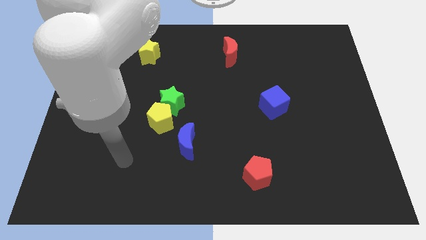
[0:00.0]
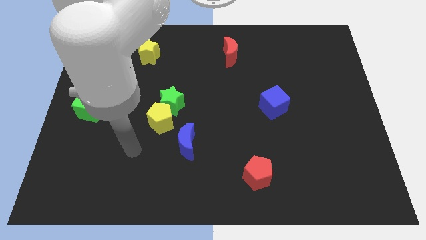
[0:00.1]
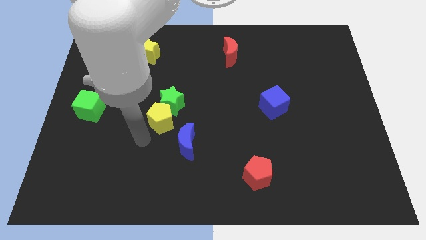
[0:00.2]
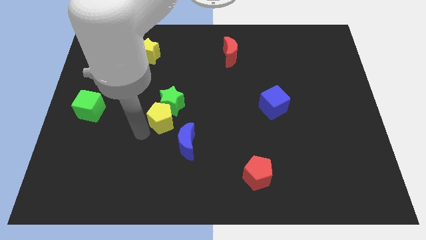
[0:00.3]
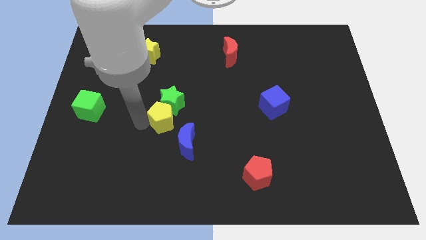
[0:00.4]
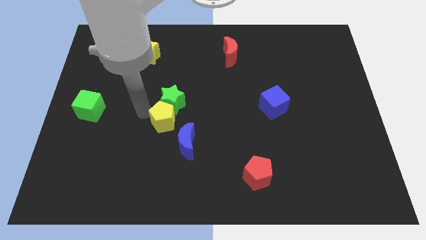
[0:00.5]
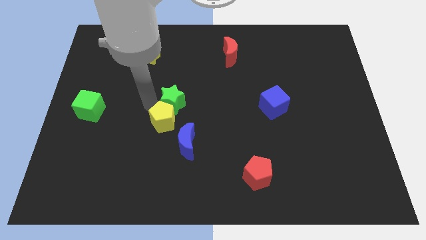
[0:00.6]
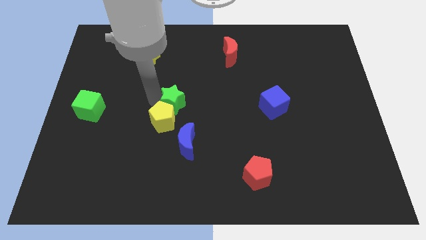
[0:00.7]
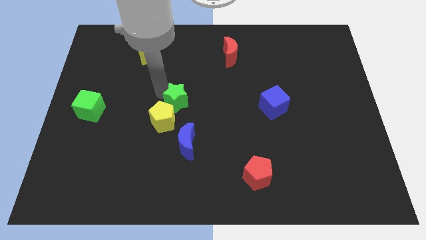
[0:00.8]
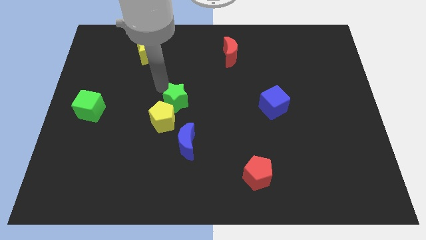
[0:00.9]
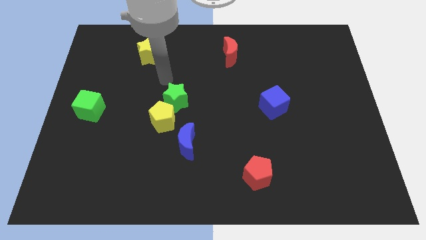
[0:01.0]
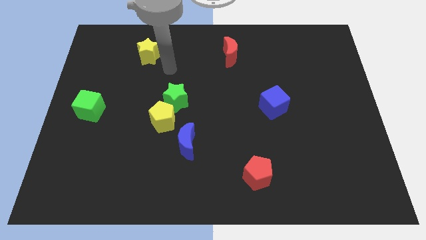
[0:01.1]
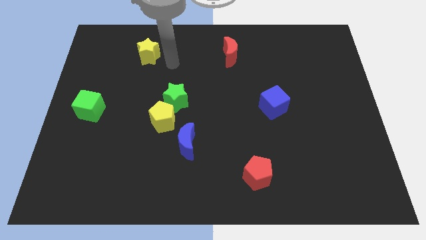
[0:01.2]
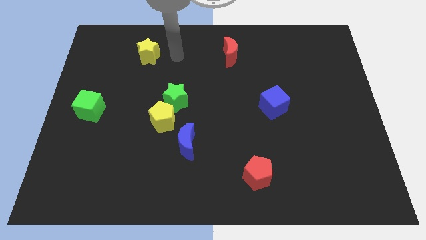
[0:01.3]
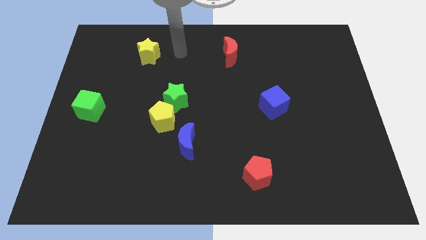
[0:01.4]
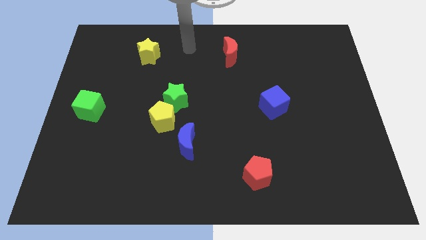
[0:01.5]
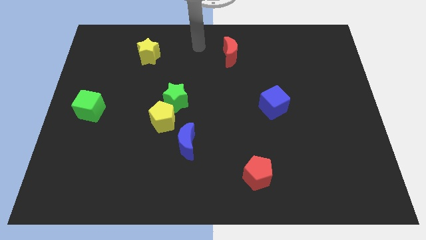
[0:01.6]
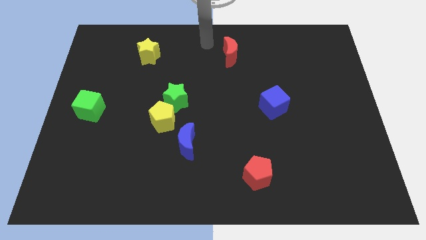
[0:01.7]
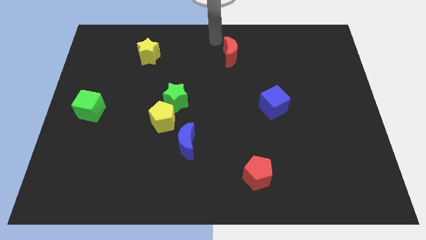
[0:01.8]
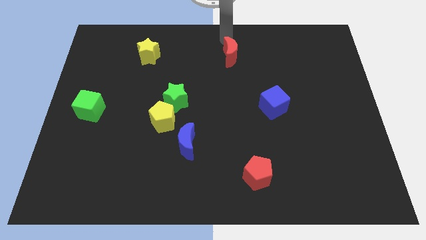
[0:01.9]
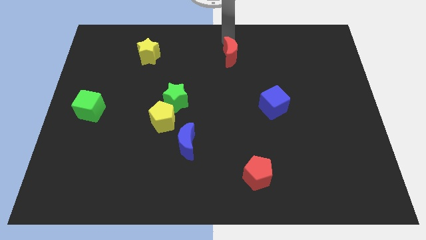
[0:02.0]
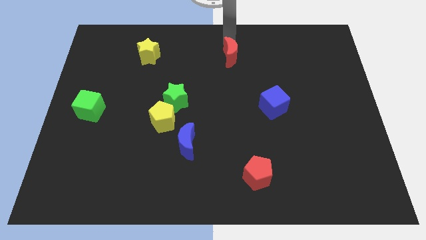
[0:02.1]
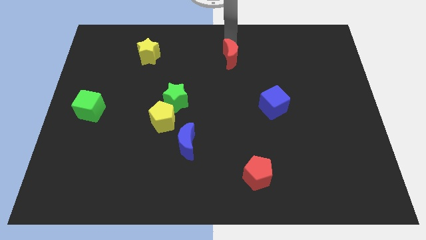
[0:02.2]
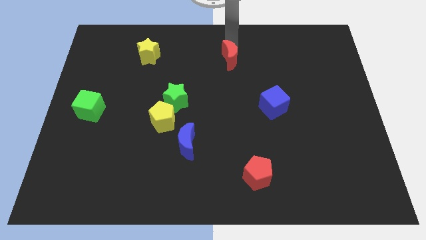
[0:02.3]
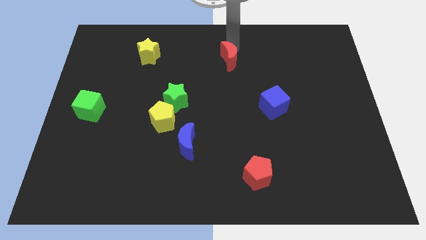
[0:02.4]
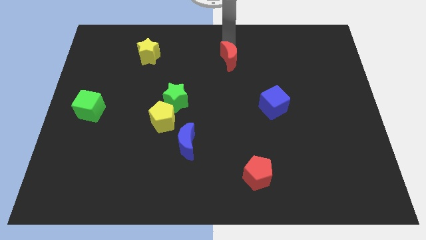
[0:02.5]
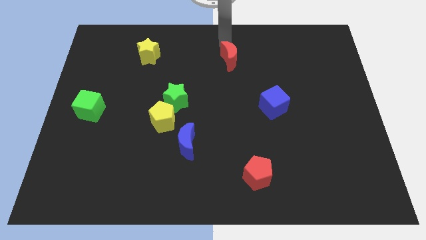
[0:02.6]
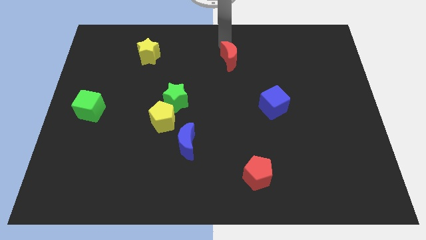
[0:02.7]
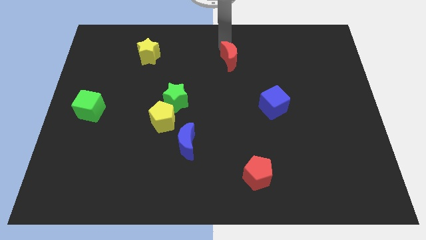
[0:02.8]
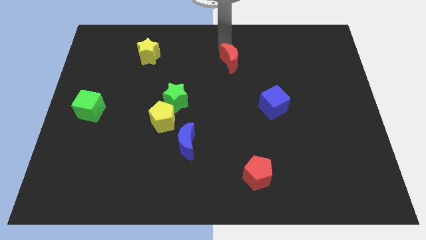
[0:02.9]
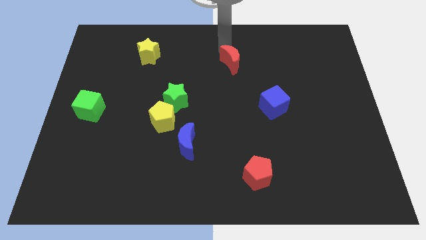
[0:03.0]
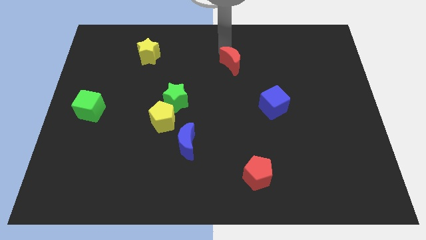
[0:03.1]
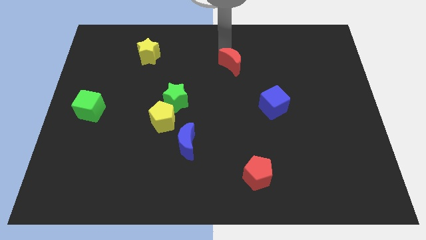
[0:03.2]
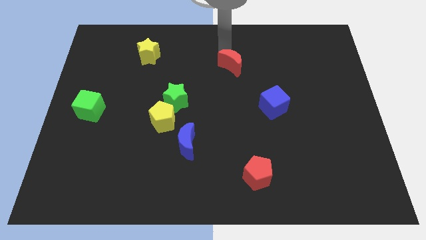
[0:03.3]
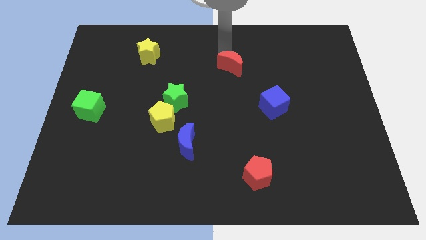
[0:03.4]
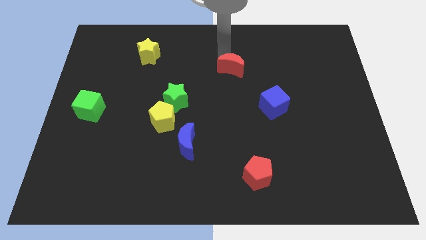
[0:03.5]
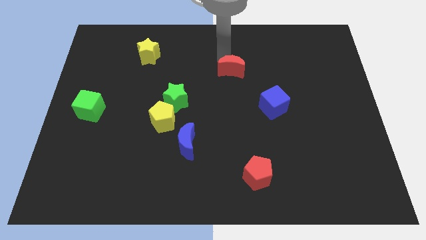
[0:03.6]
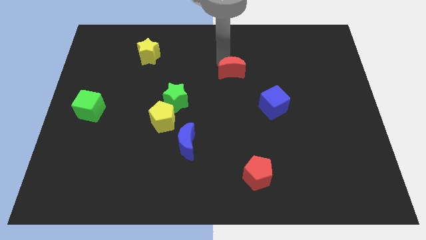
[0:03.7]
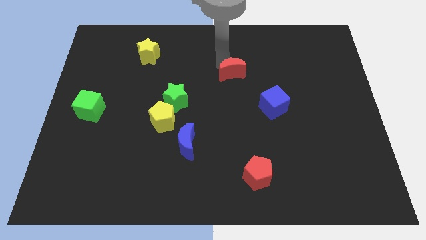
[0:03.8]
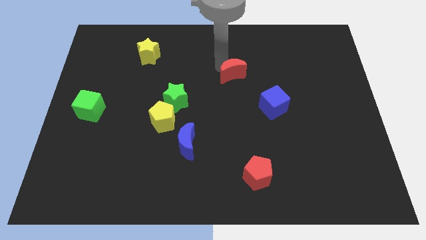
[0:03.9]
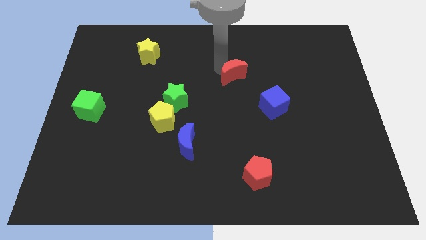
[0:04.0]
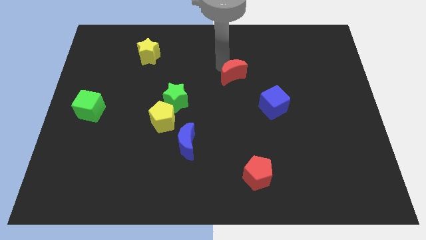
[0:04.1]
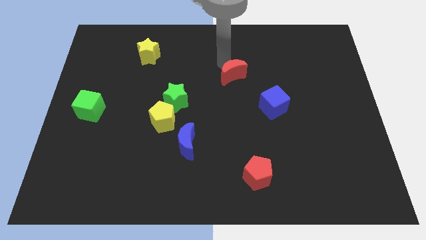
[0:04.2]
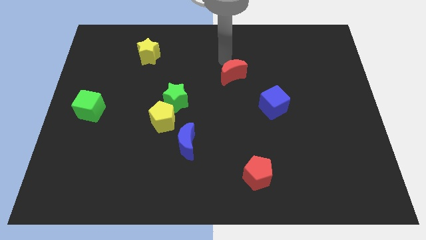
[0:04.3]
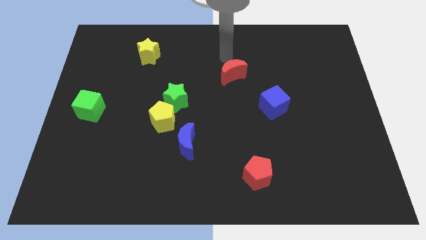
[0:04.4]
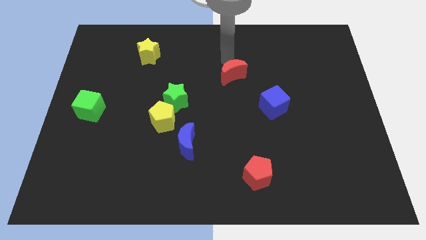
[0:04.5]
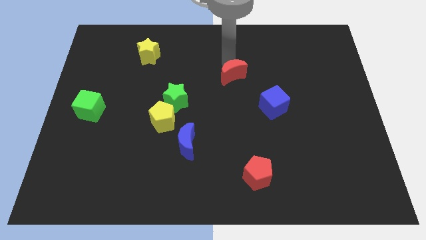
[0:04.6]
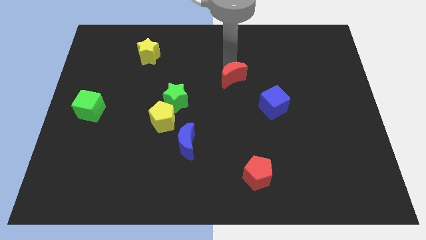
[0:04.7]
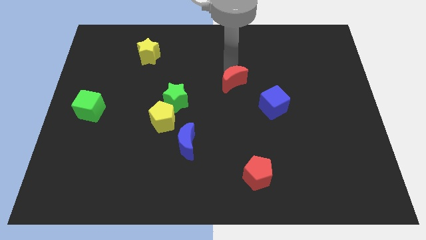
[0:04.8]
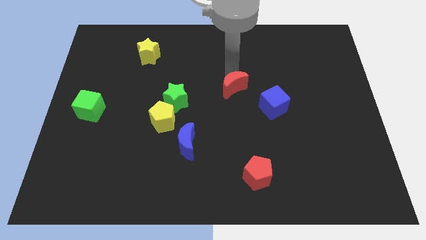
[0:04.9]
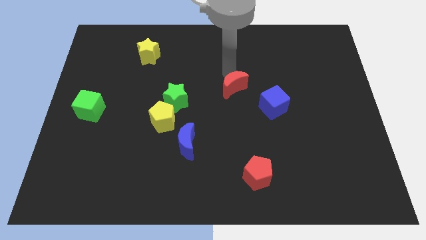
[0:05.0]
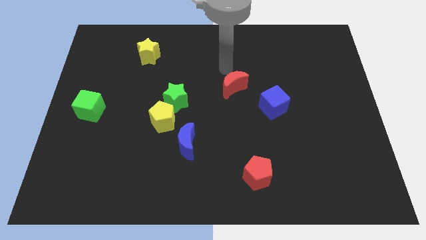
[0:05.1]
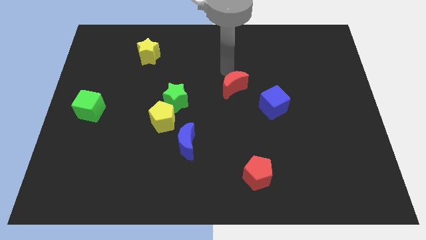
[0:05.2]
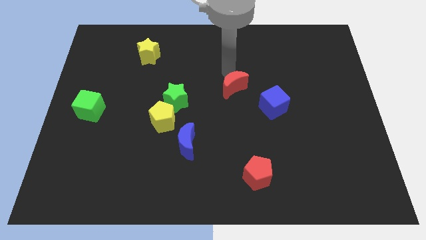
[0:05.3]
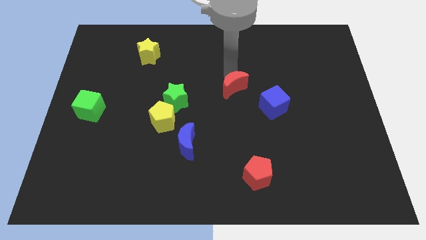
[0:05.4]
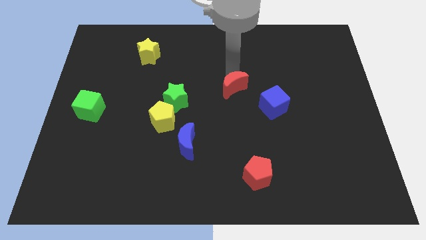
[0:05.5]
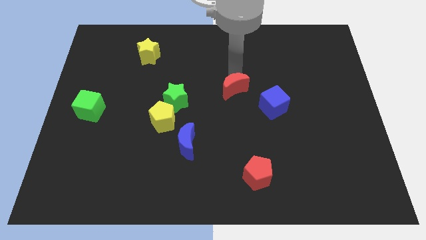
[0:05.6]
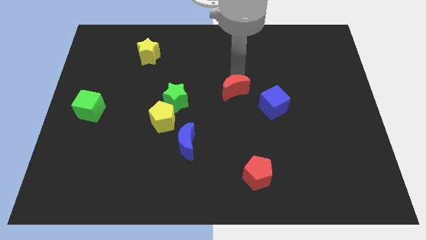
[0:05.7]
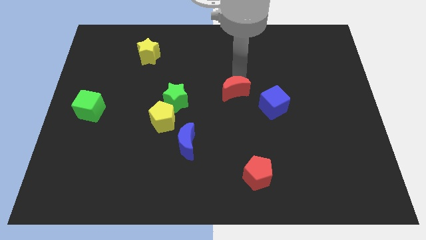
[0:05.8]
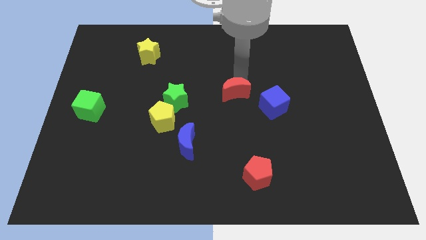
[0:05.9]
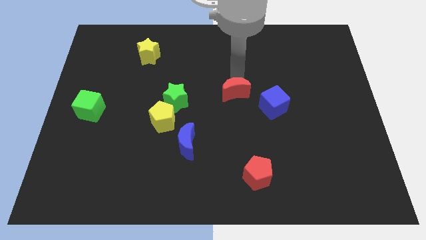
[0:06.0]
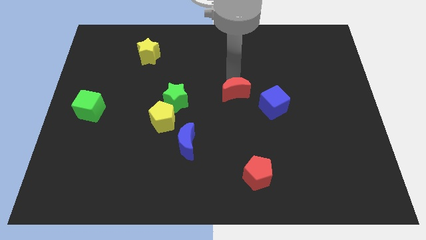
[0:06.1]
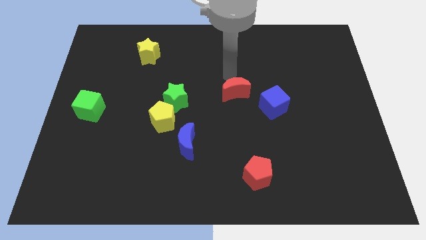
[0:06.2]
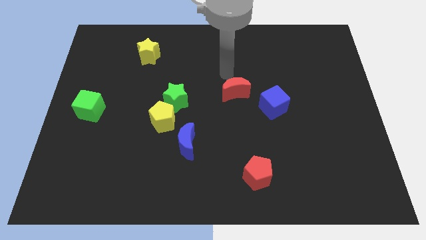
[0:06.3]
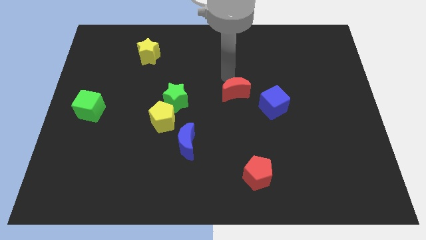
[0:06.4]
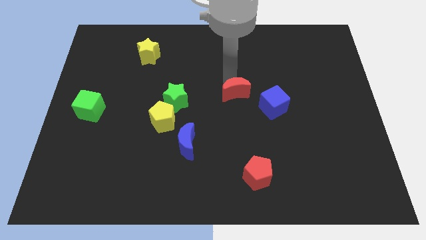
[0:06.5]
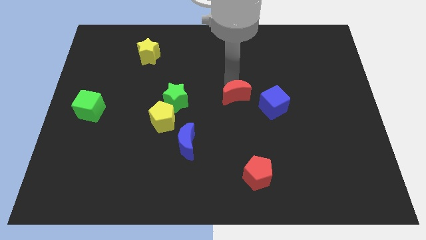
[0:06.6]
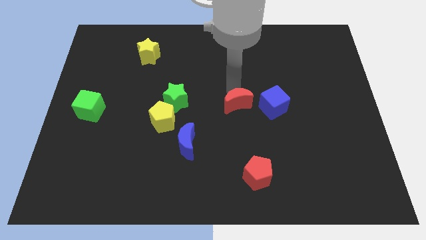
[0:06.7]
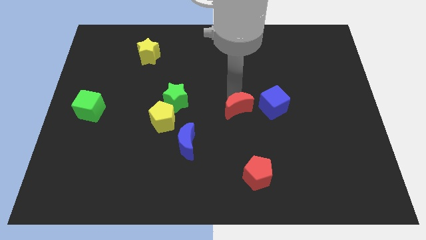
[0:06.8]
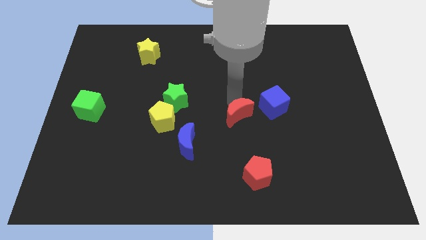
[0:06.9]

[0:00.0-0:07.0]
put the red moon to the bottom left side of the blue cube
